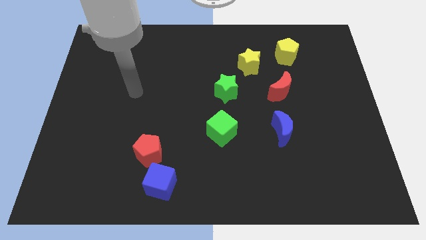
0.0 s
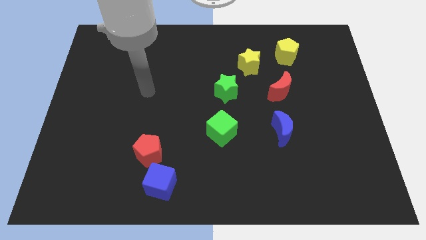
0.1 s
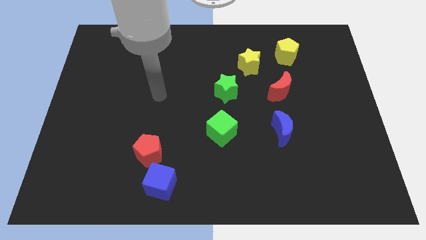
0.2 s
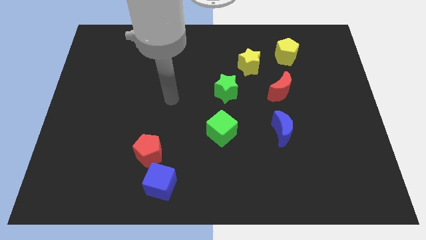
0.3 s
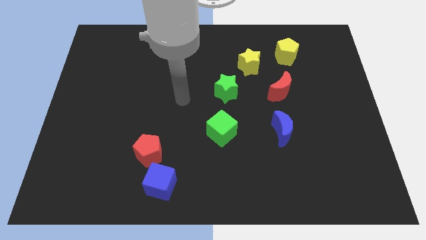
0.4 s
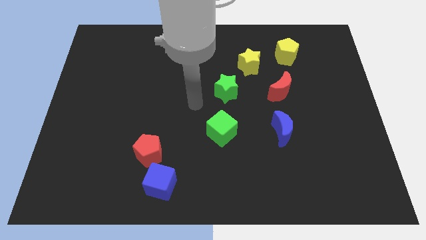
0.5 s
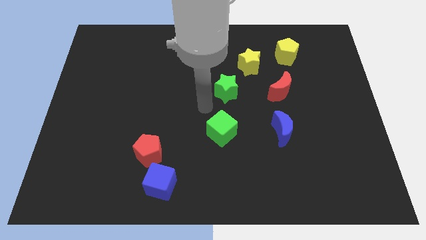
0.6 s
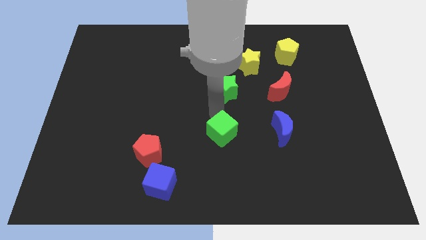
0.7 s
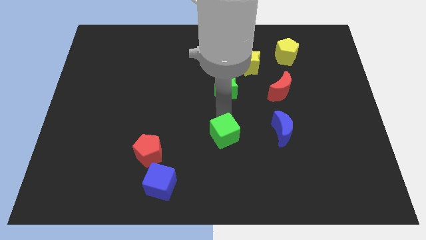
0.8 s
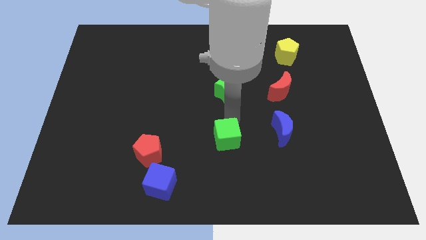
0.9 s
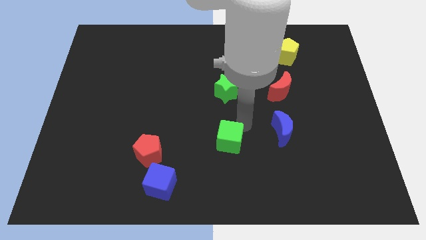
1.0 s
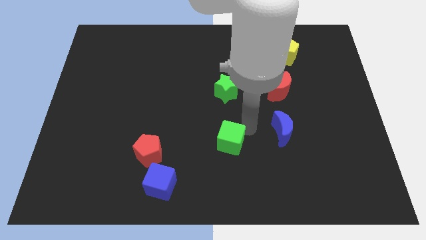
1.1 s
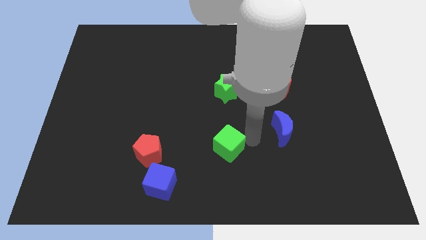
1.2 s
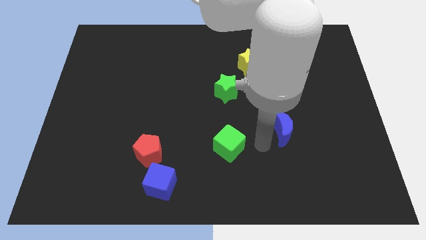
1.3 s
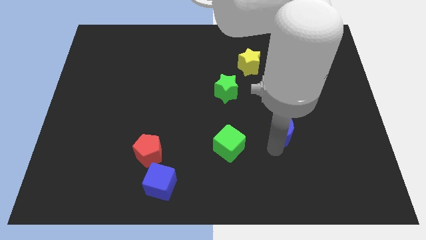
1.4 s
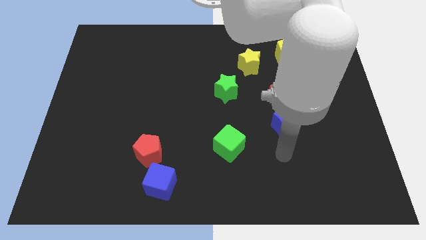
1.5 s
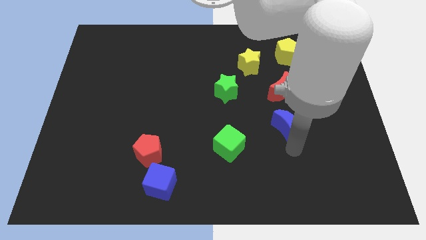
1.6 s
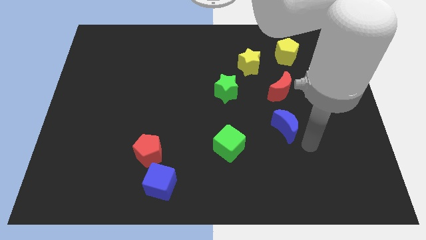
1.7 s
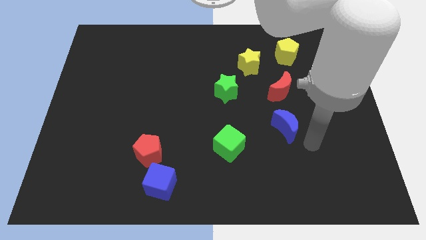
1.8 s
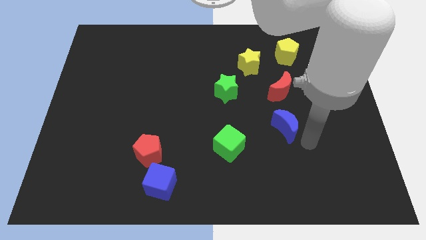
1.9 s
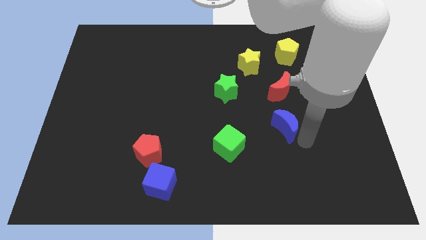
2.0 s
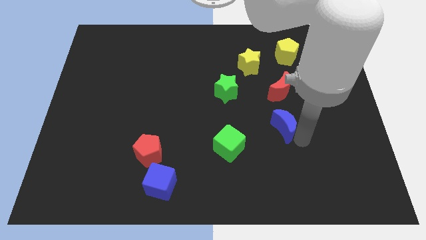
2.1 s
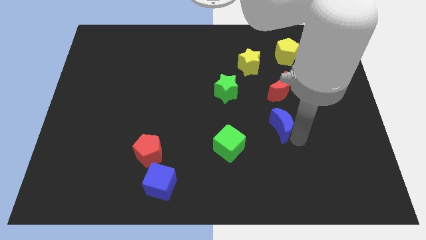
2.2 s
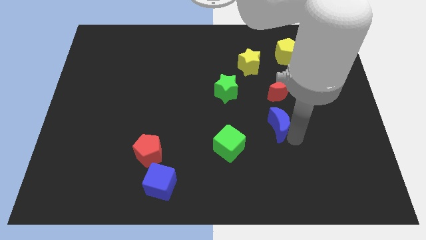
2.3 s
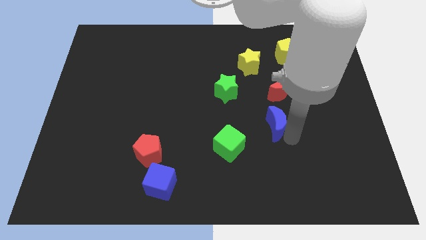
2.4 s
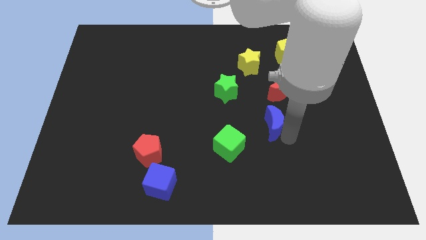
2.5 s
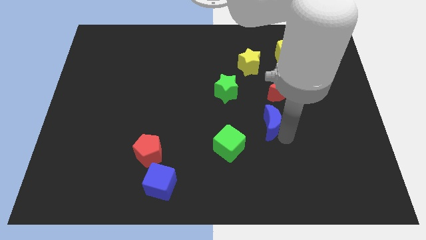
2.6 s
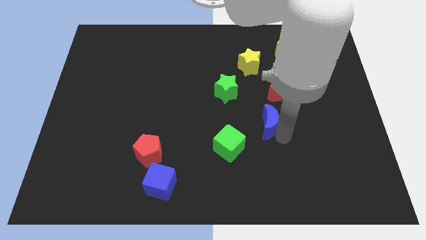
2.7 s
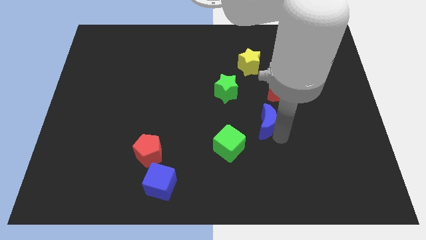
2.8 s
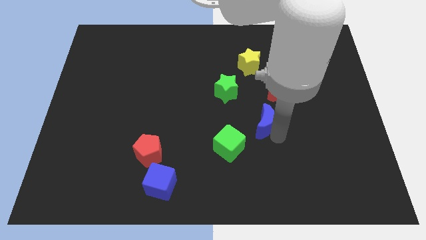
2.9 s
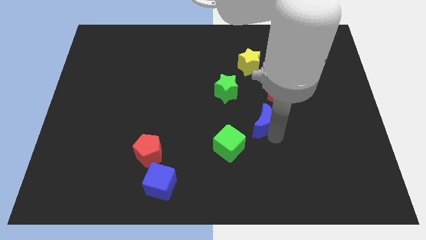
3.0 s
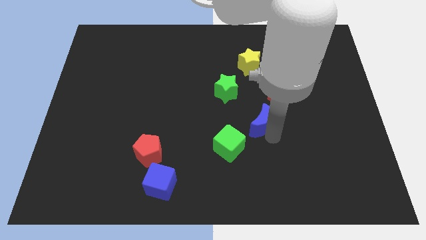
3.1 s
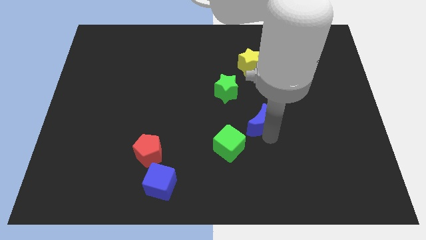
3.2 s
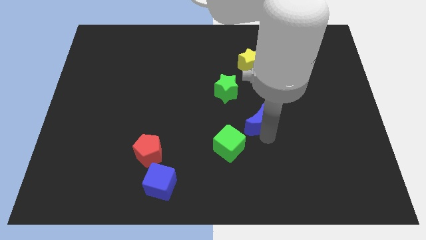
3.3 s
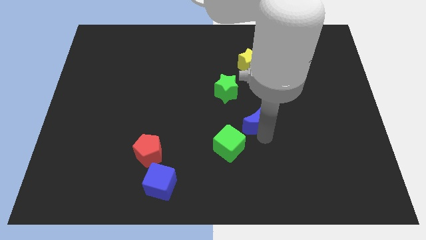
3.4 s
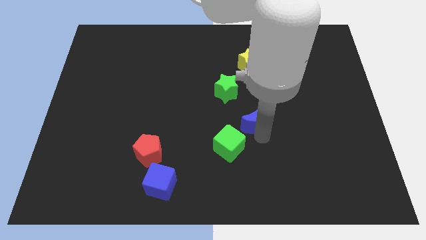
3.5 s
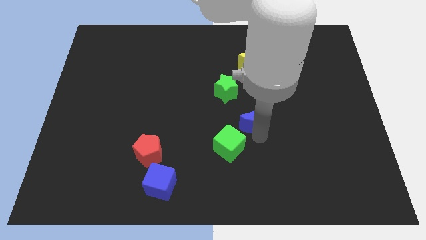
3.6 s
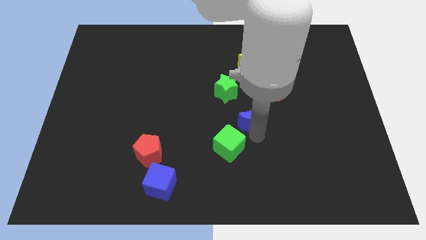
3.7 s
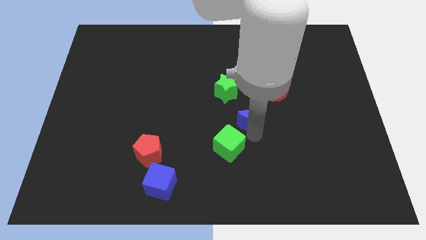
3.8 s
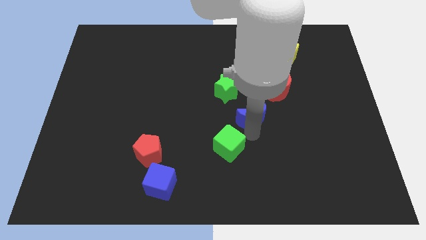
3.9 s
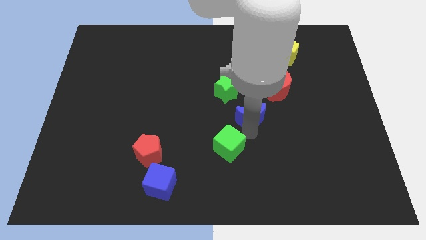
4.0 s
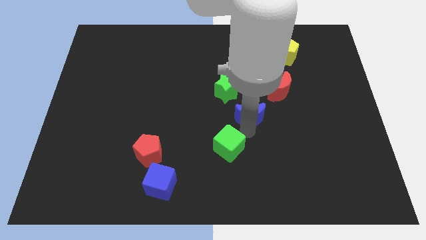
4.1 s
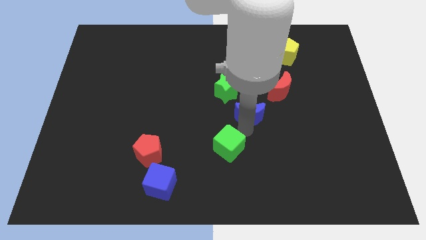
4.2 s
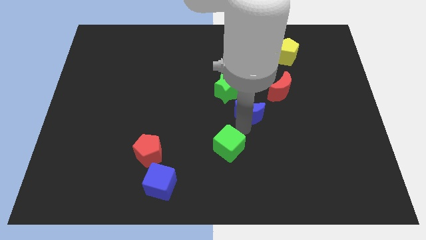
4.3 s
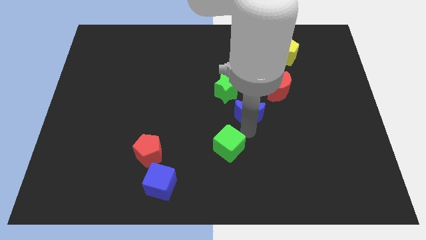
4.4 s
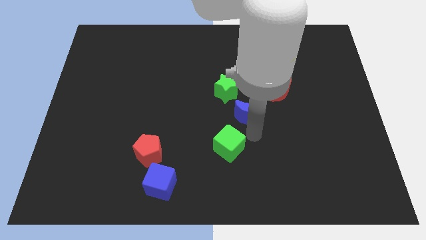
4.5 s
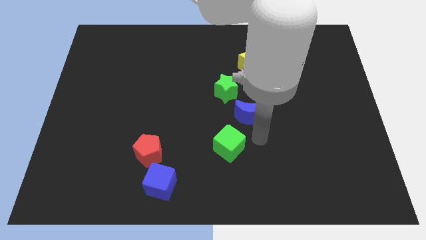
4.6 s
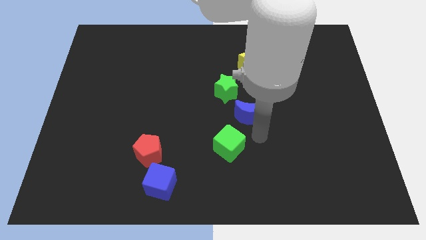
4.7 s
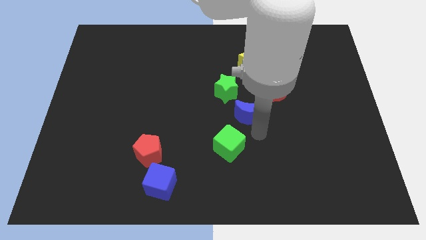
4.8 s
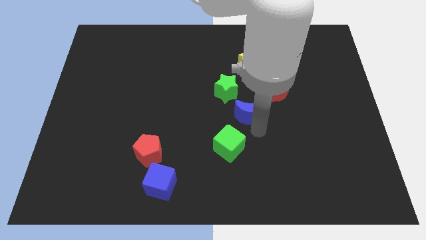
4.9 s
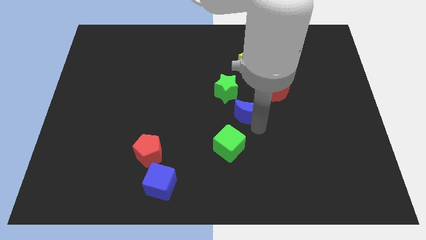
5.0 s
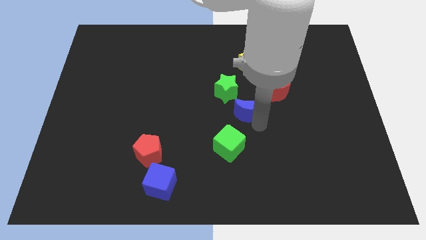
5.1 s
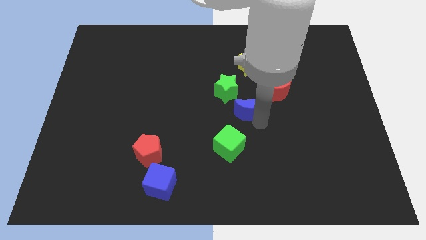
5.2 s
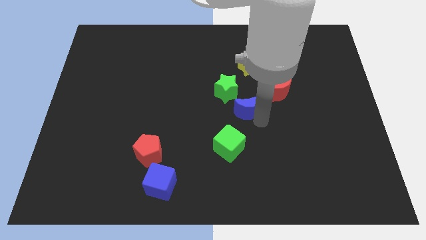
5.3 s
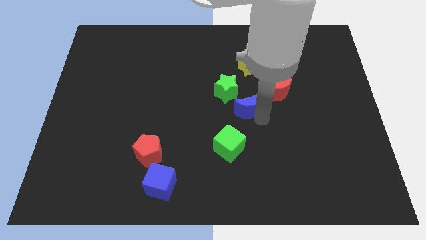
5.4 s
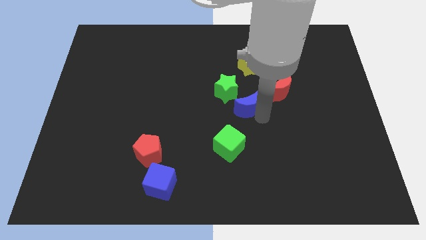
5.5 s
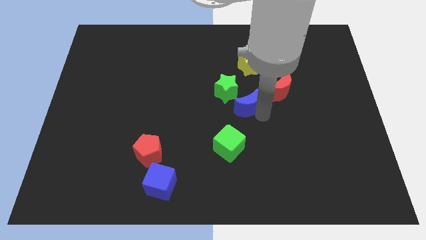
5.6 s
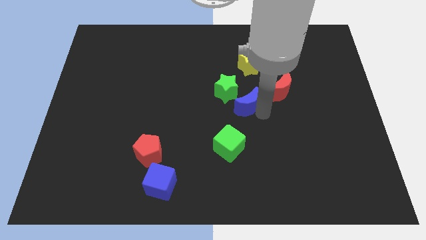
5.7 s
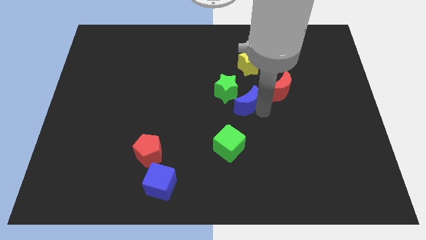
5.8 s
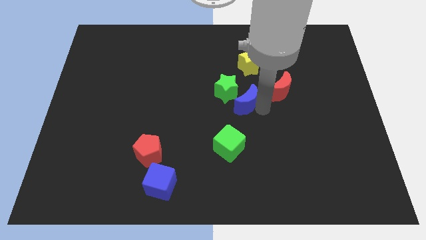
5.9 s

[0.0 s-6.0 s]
slide the blue moon to the green star

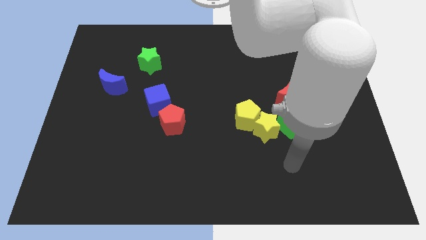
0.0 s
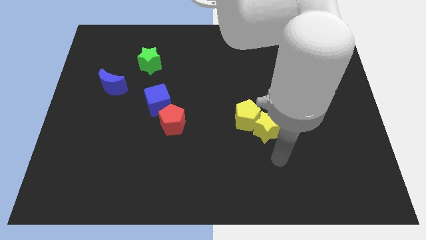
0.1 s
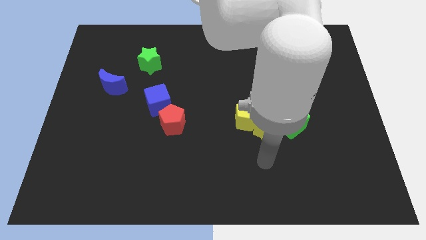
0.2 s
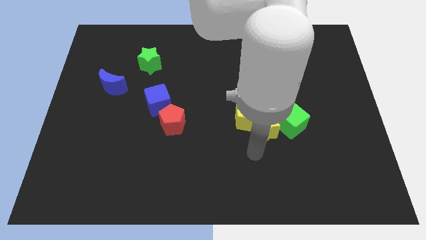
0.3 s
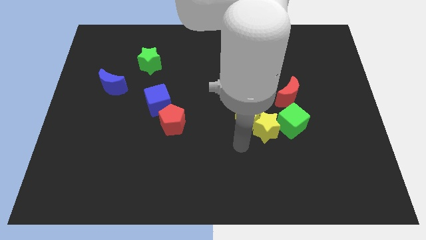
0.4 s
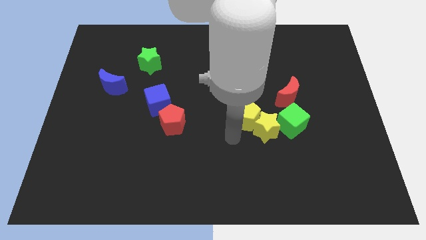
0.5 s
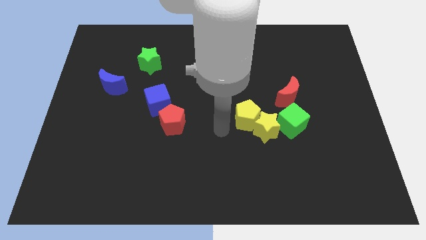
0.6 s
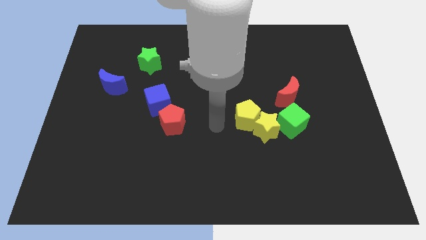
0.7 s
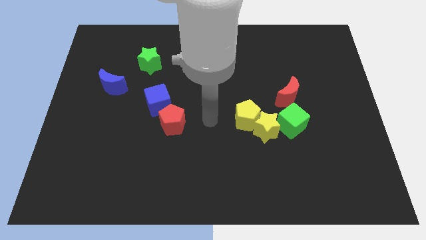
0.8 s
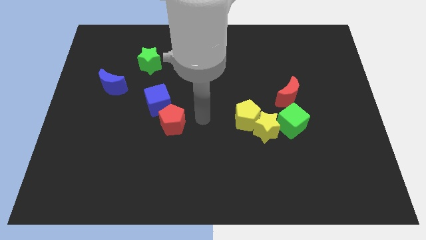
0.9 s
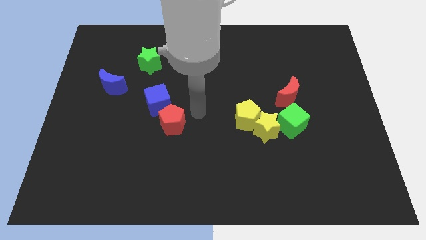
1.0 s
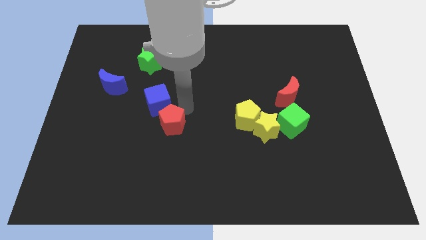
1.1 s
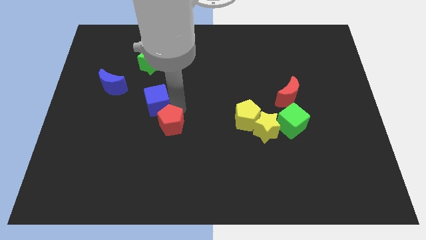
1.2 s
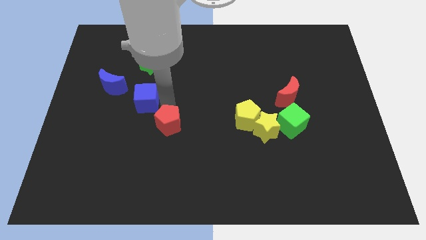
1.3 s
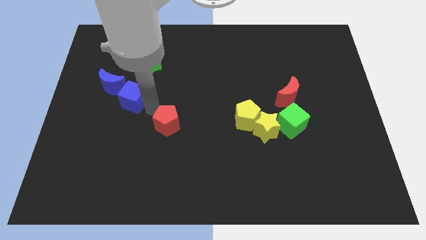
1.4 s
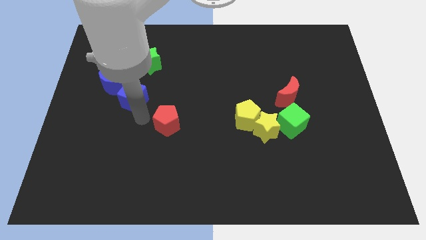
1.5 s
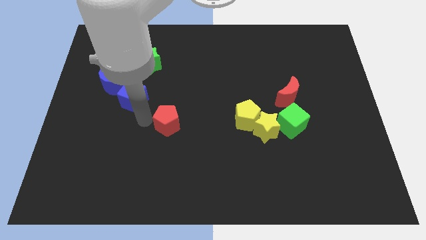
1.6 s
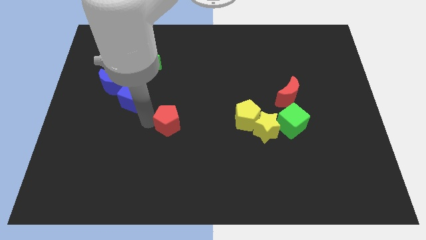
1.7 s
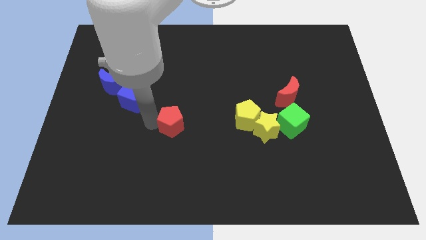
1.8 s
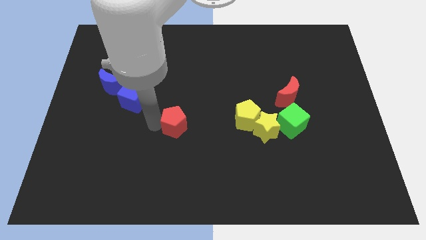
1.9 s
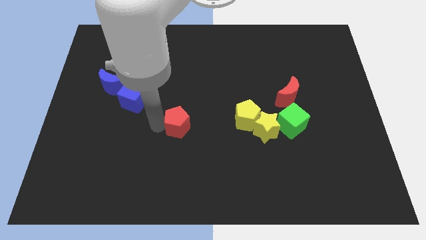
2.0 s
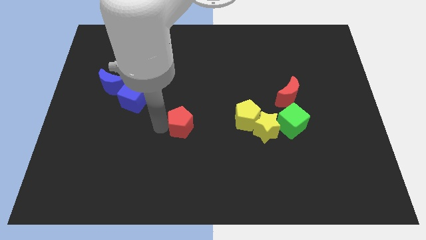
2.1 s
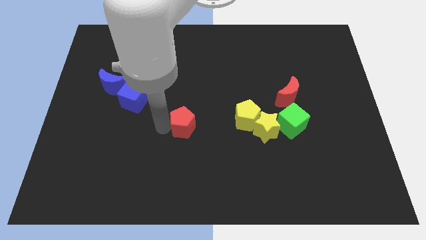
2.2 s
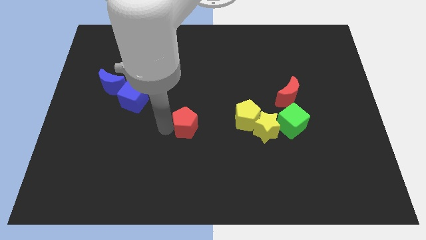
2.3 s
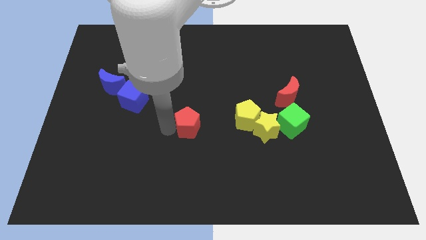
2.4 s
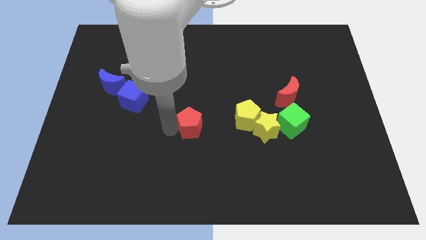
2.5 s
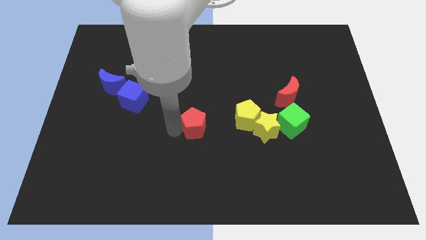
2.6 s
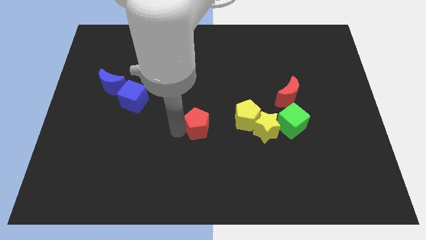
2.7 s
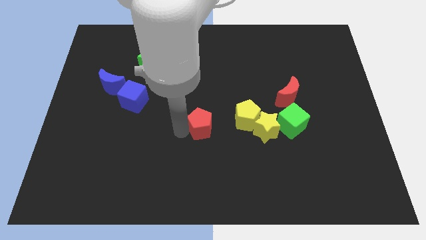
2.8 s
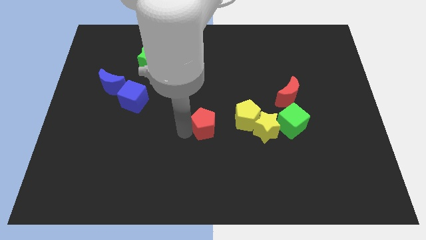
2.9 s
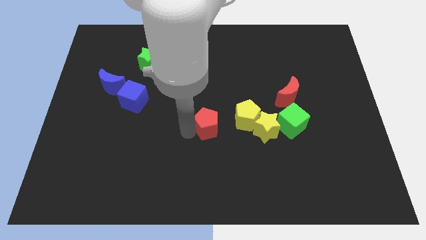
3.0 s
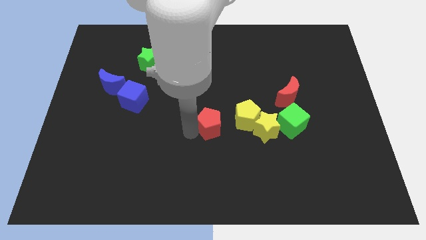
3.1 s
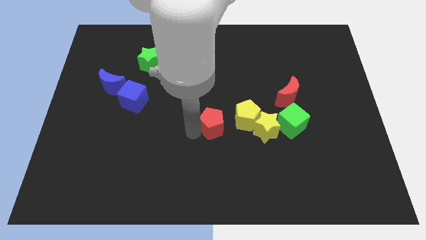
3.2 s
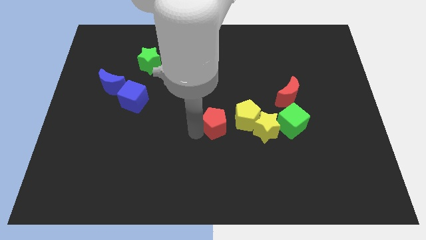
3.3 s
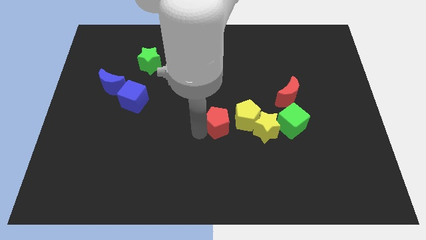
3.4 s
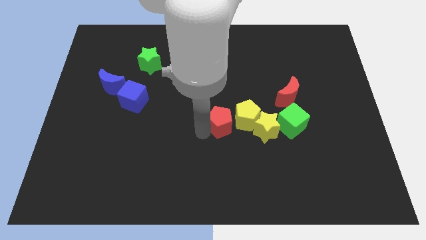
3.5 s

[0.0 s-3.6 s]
push the red pentagon close to the yellow pentagon
